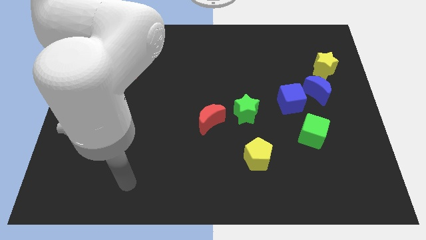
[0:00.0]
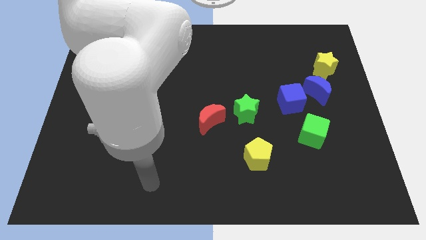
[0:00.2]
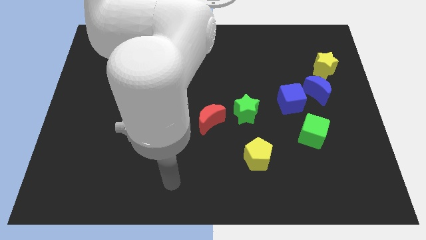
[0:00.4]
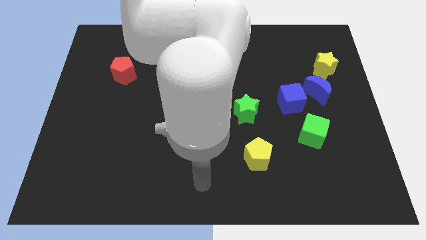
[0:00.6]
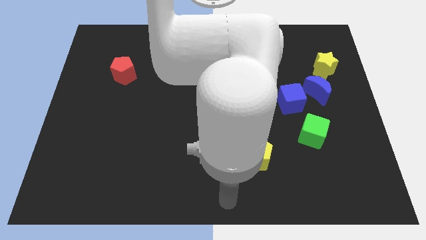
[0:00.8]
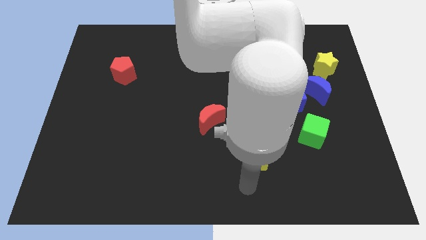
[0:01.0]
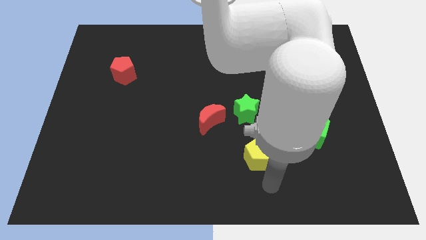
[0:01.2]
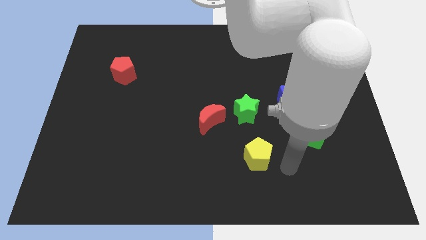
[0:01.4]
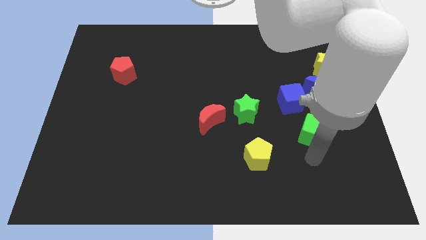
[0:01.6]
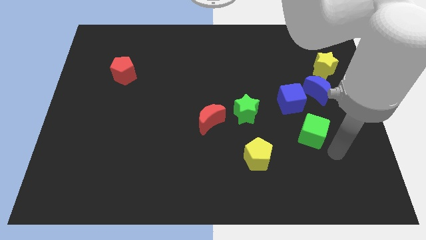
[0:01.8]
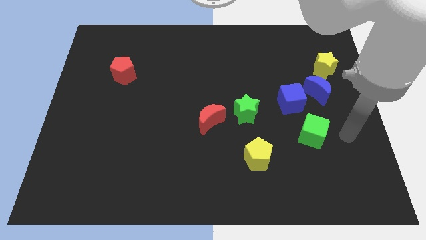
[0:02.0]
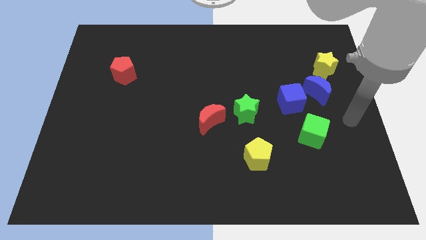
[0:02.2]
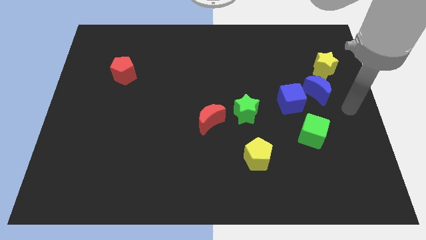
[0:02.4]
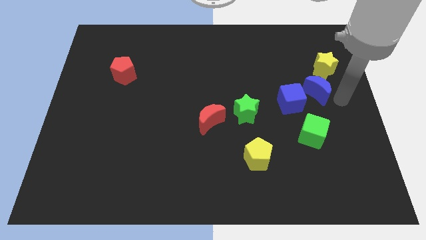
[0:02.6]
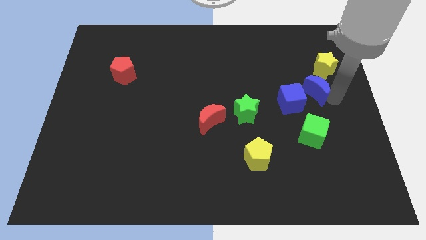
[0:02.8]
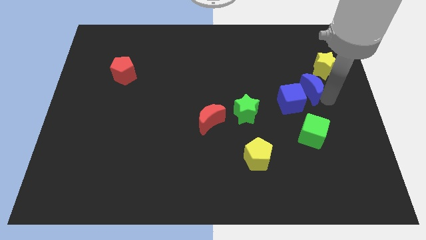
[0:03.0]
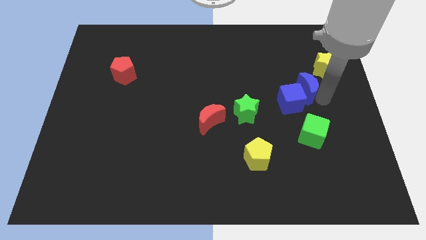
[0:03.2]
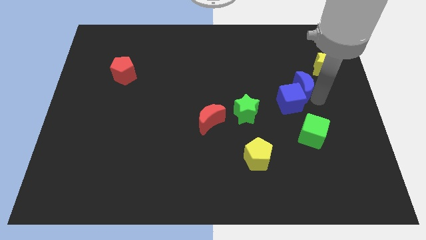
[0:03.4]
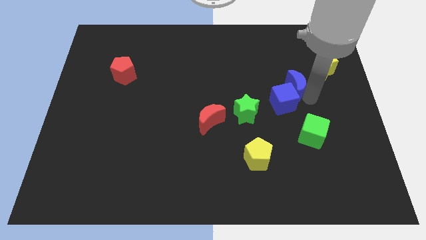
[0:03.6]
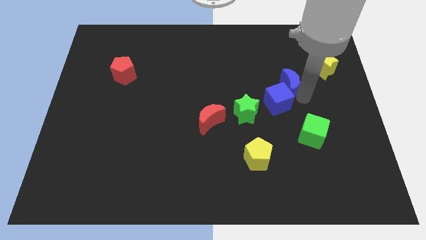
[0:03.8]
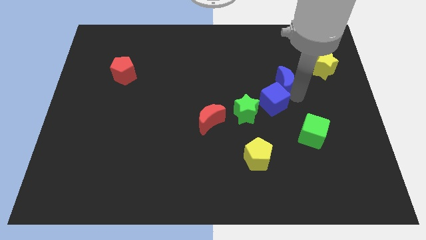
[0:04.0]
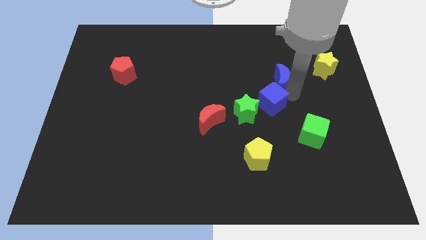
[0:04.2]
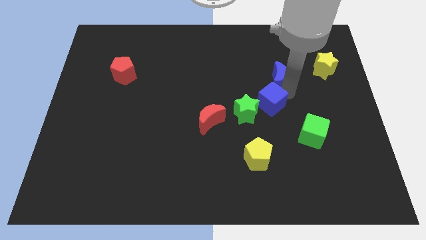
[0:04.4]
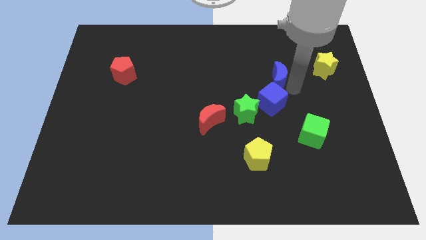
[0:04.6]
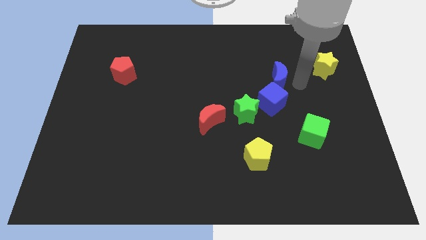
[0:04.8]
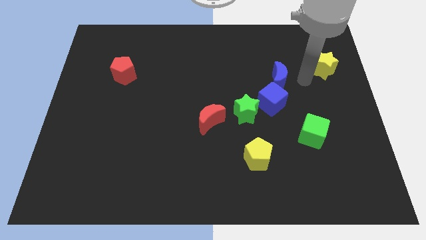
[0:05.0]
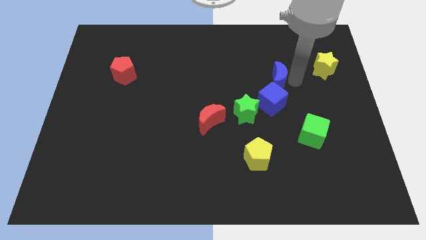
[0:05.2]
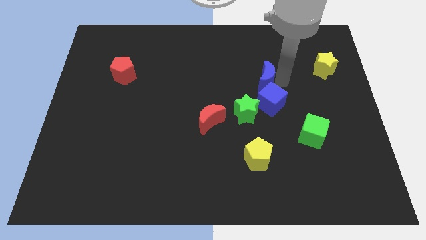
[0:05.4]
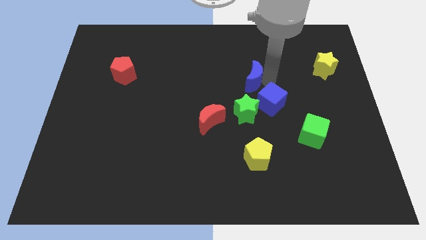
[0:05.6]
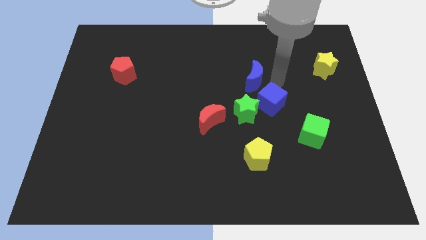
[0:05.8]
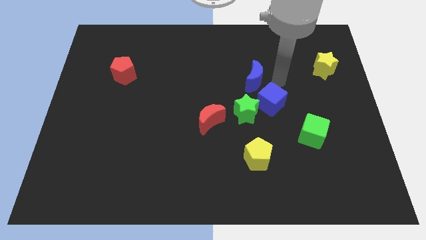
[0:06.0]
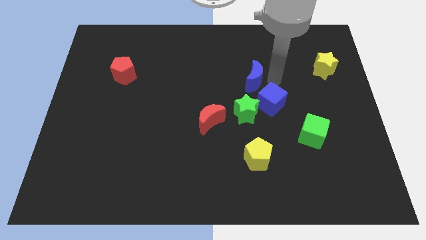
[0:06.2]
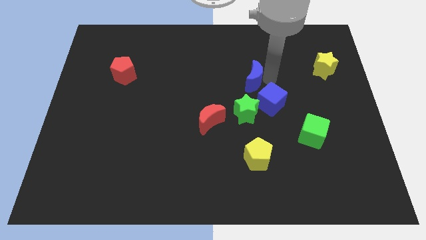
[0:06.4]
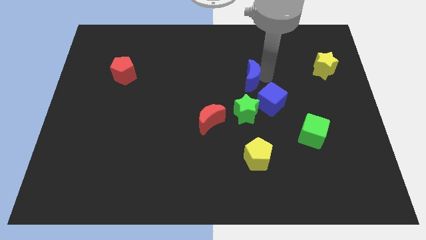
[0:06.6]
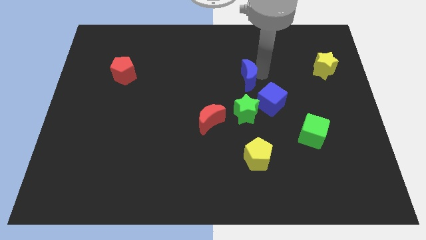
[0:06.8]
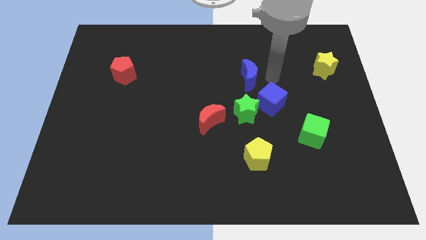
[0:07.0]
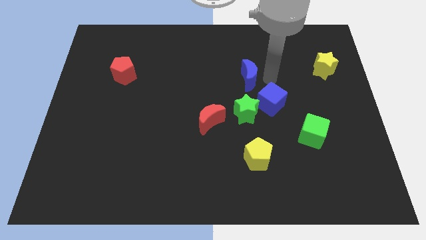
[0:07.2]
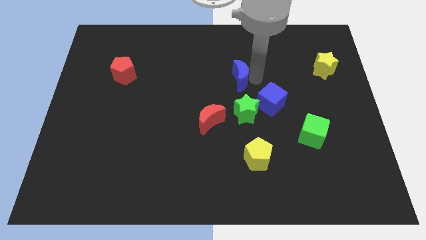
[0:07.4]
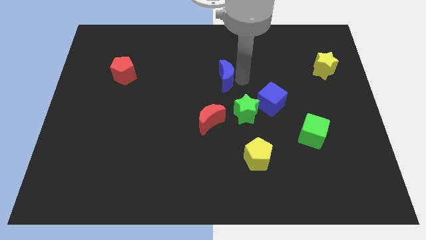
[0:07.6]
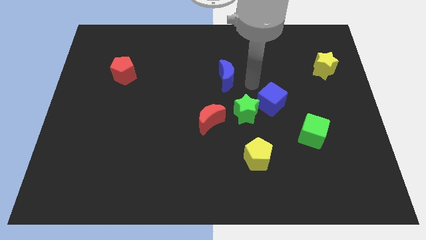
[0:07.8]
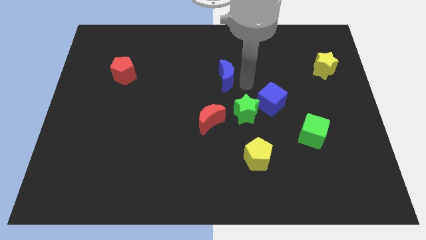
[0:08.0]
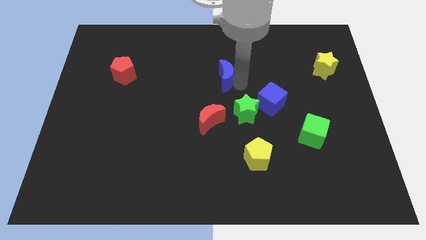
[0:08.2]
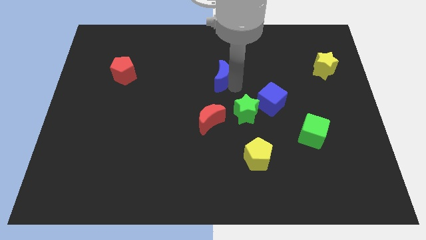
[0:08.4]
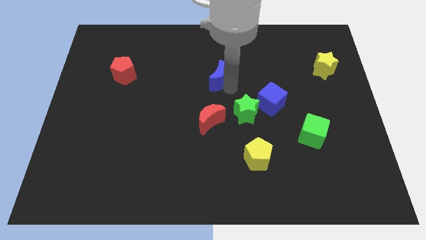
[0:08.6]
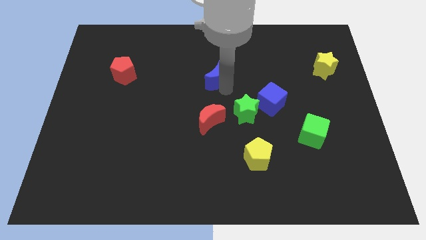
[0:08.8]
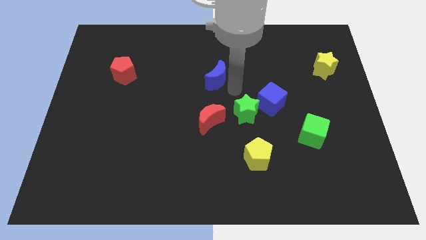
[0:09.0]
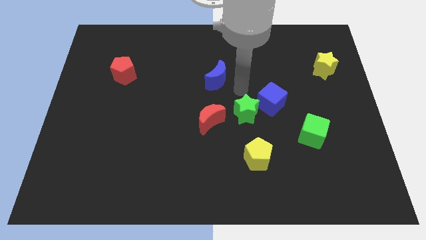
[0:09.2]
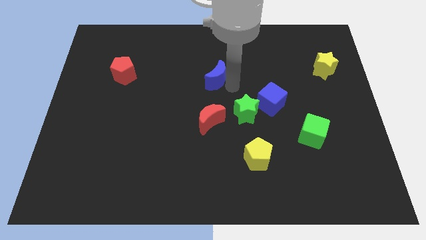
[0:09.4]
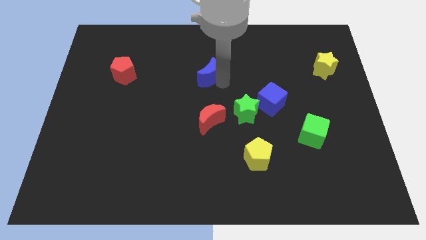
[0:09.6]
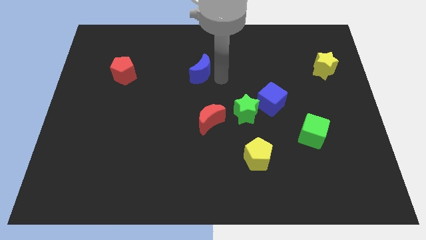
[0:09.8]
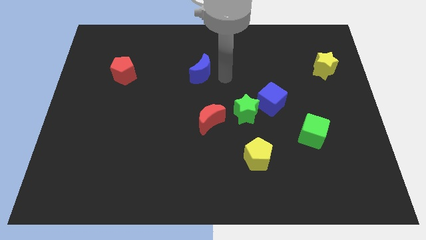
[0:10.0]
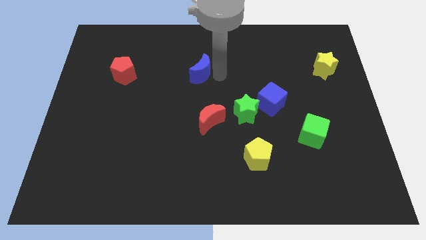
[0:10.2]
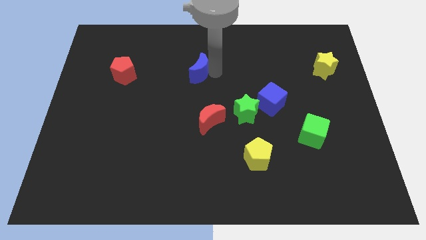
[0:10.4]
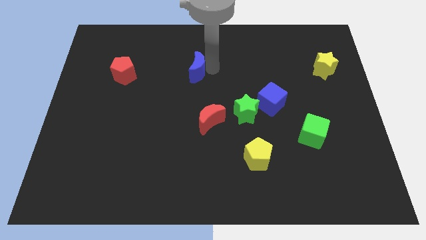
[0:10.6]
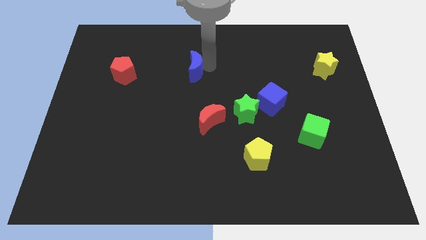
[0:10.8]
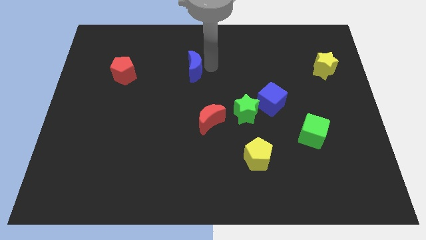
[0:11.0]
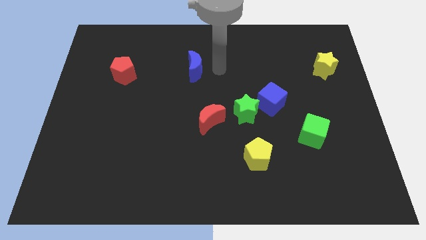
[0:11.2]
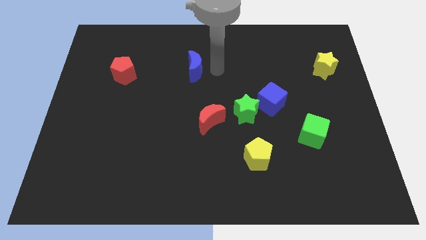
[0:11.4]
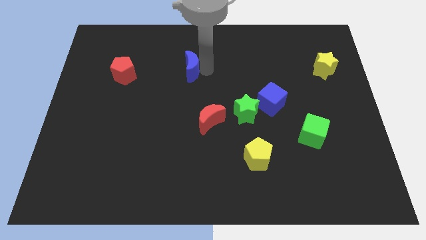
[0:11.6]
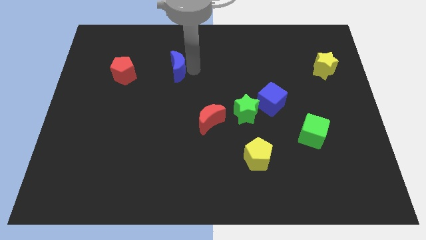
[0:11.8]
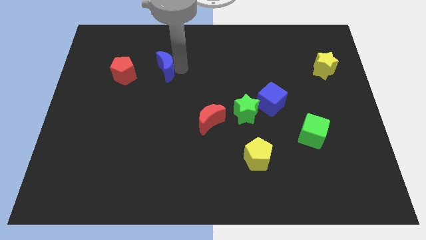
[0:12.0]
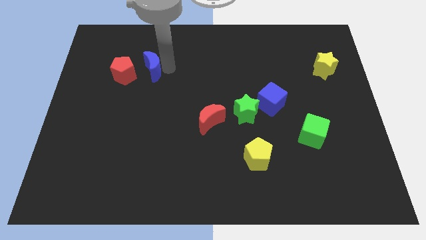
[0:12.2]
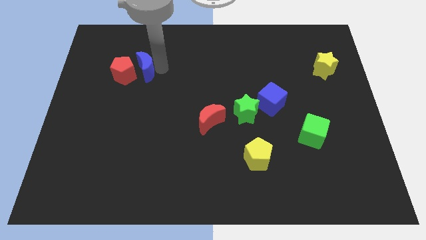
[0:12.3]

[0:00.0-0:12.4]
put the blue moon next to the red pentagon

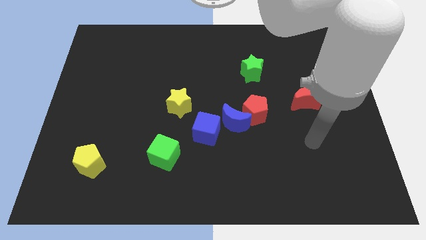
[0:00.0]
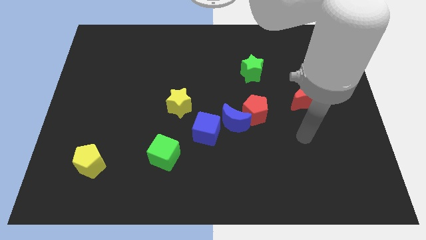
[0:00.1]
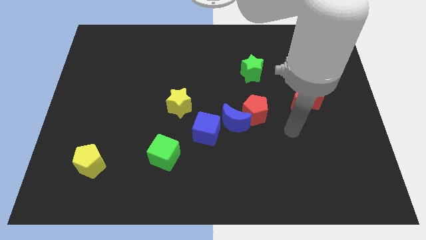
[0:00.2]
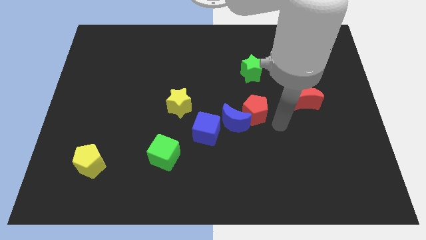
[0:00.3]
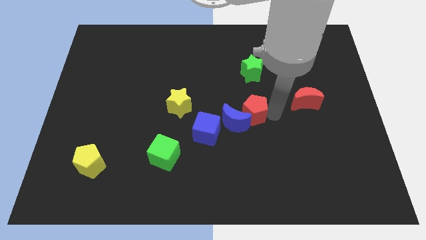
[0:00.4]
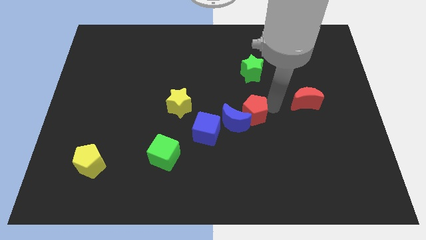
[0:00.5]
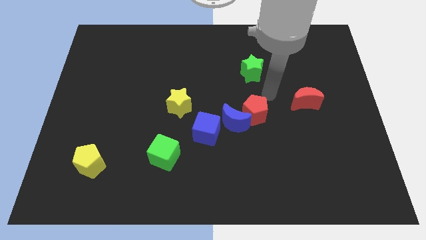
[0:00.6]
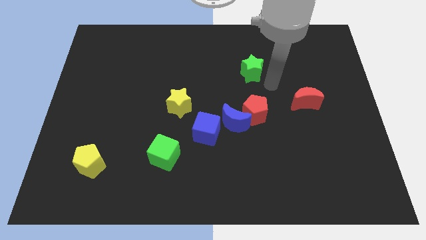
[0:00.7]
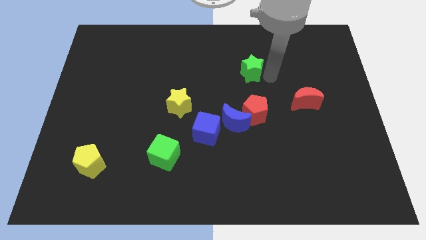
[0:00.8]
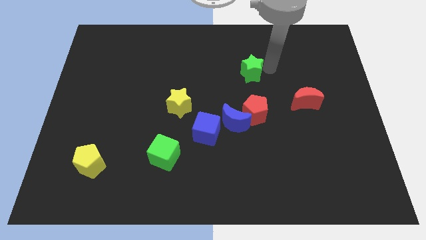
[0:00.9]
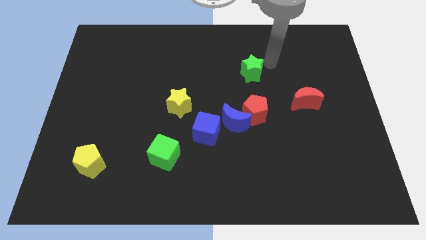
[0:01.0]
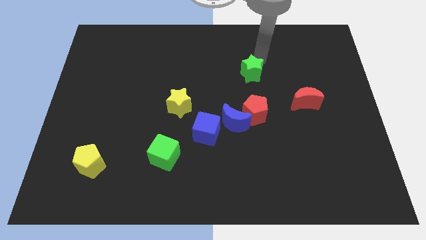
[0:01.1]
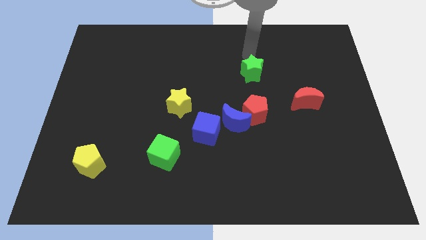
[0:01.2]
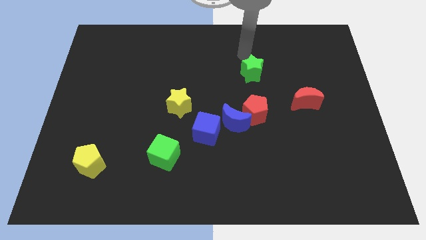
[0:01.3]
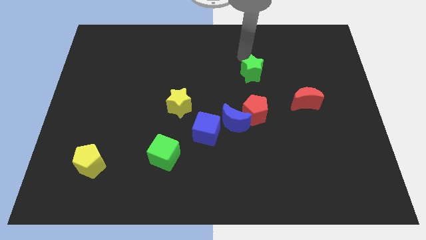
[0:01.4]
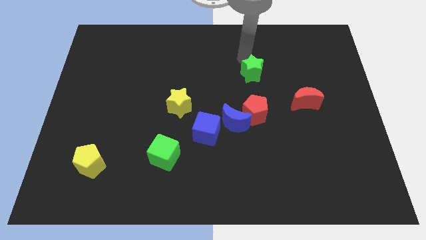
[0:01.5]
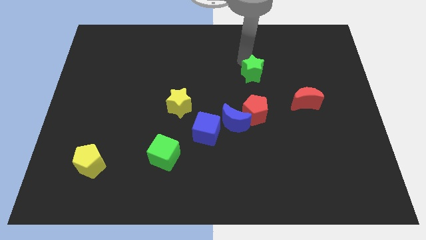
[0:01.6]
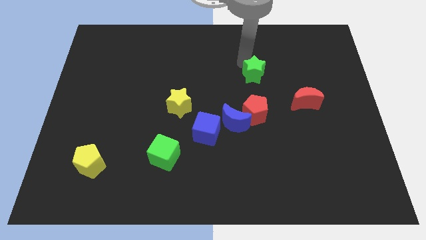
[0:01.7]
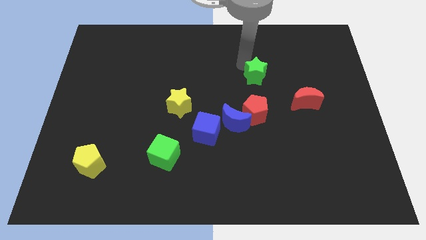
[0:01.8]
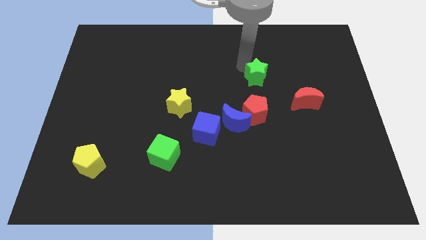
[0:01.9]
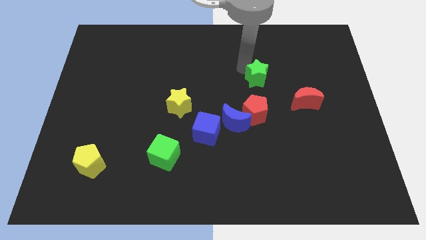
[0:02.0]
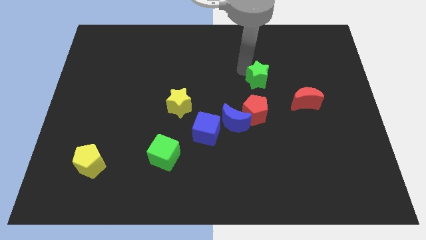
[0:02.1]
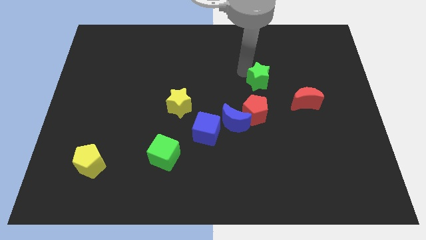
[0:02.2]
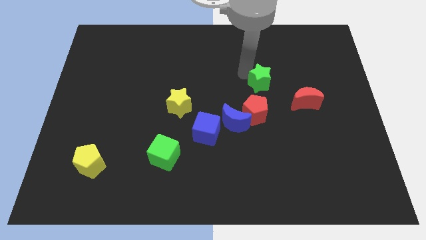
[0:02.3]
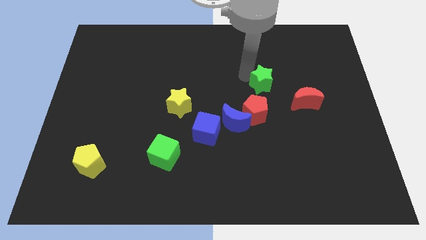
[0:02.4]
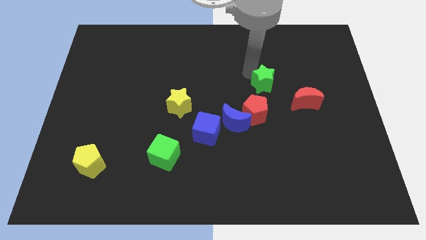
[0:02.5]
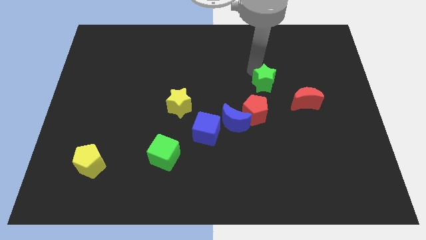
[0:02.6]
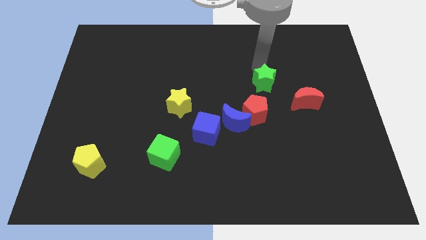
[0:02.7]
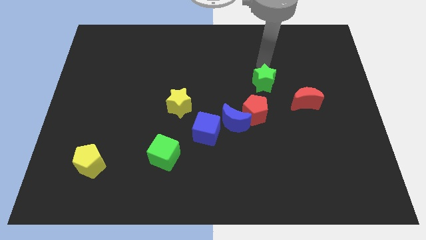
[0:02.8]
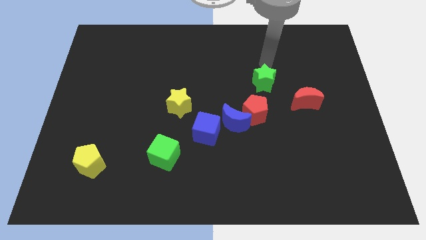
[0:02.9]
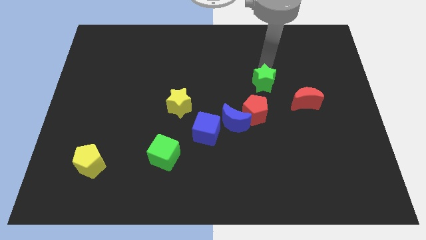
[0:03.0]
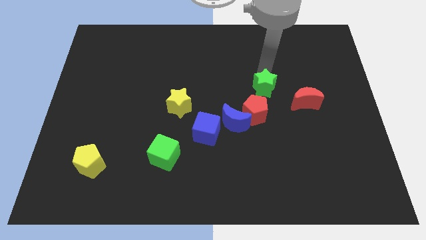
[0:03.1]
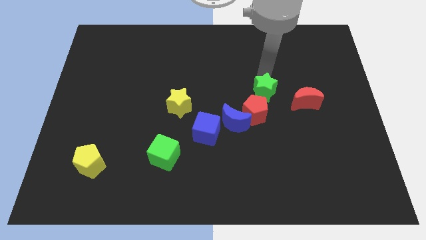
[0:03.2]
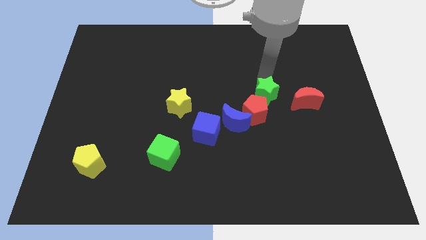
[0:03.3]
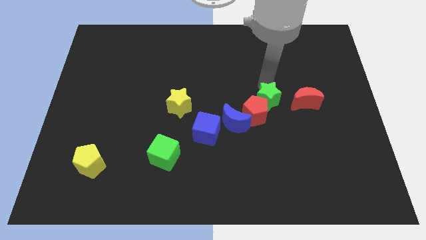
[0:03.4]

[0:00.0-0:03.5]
move the green star next to the red pentagon
